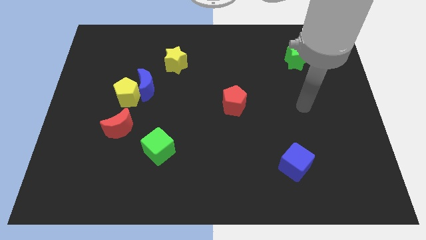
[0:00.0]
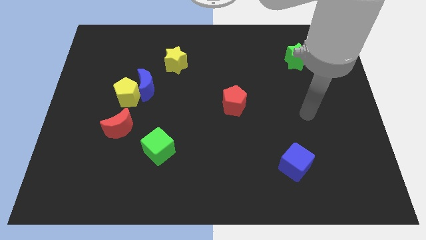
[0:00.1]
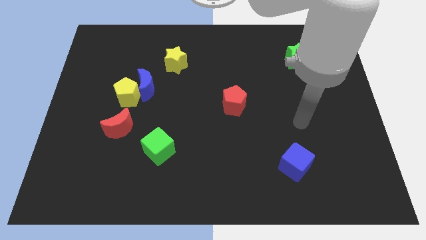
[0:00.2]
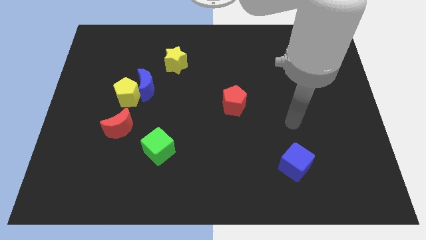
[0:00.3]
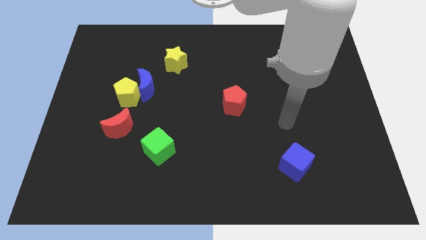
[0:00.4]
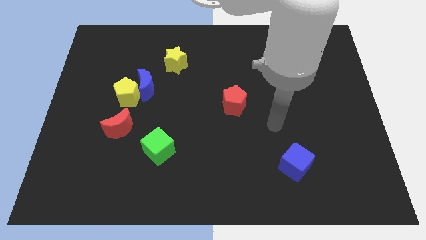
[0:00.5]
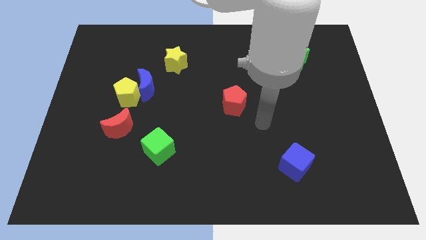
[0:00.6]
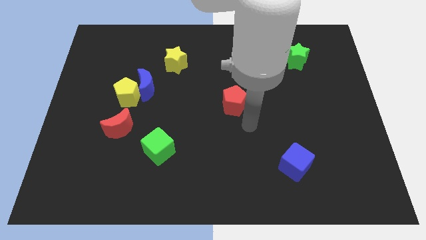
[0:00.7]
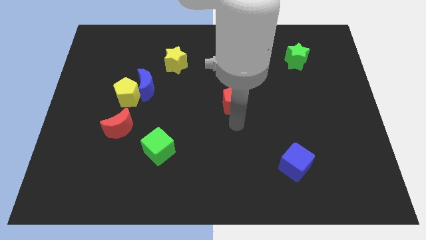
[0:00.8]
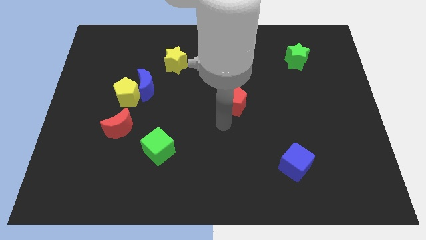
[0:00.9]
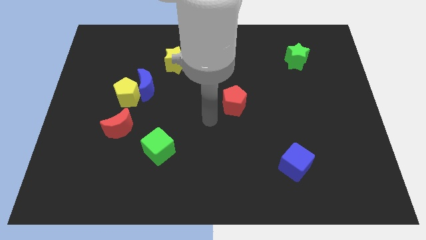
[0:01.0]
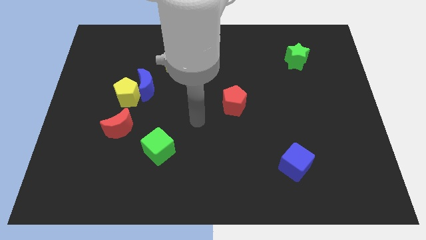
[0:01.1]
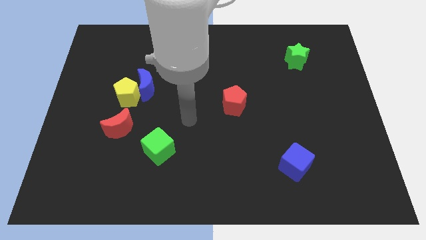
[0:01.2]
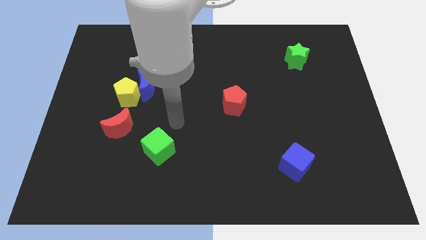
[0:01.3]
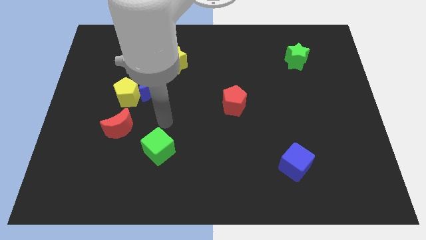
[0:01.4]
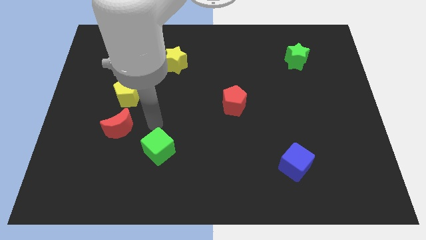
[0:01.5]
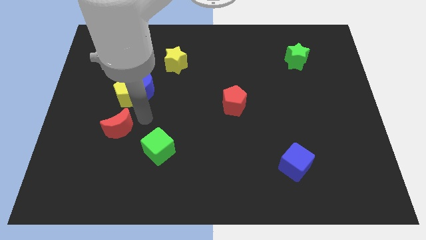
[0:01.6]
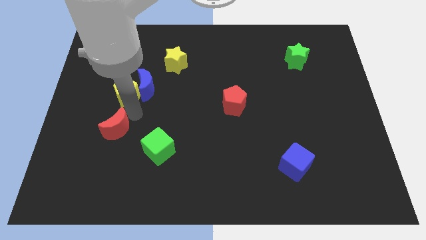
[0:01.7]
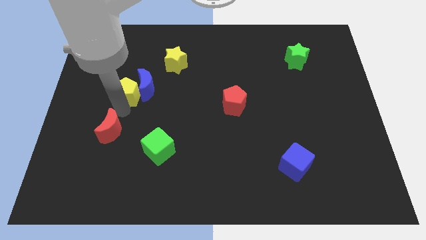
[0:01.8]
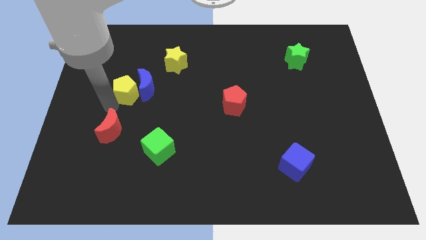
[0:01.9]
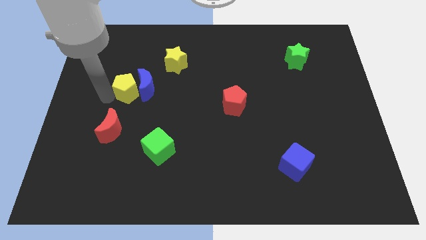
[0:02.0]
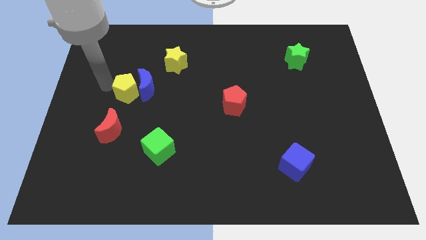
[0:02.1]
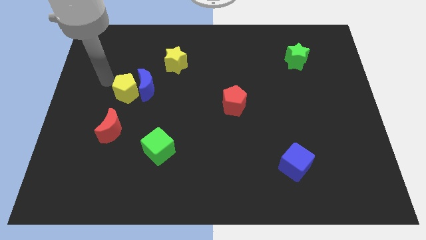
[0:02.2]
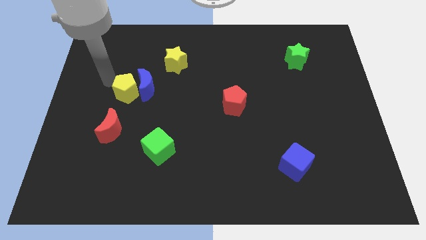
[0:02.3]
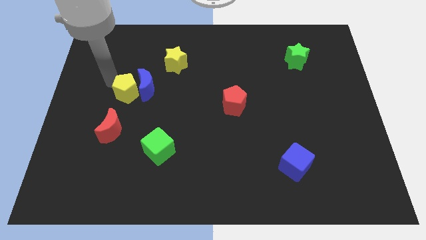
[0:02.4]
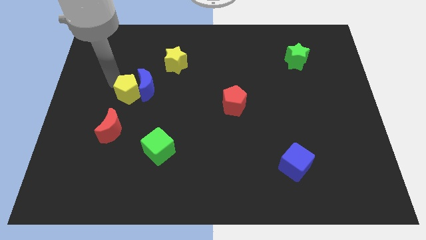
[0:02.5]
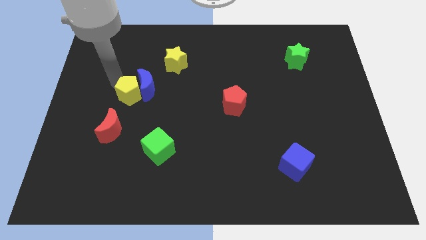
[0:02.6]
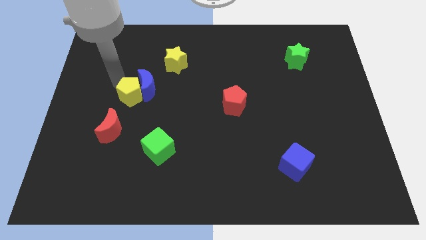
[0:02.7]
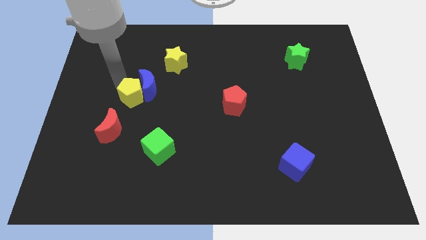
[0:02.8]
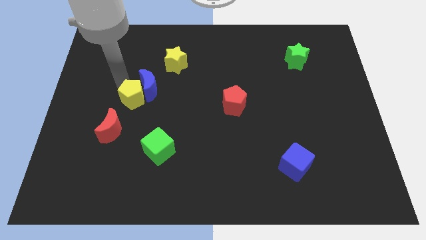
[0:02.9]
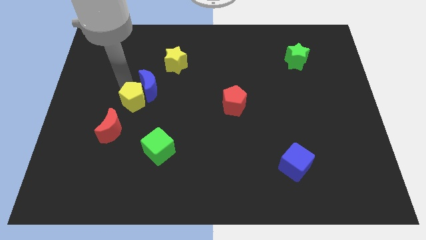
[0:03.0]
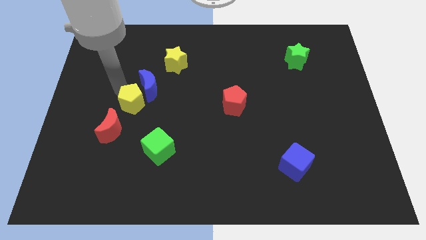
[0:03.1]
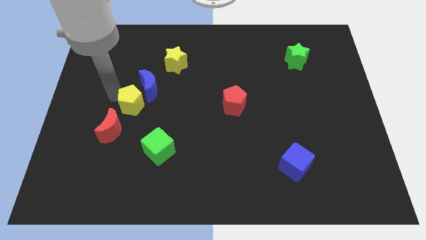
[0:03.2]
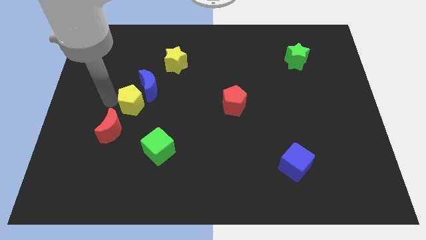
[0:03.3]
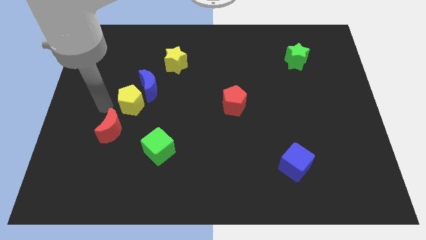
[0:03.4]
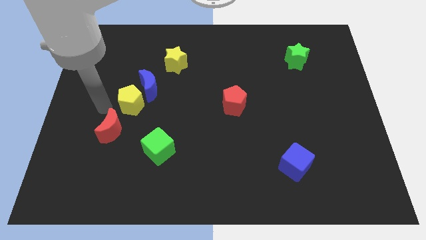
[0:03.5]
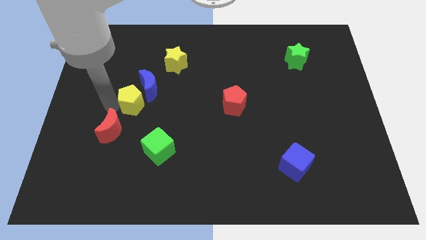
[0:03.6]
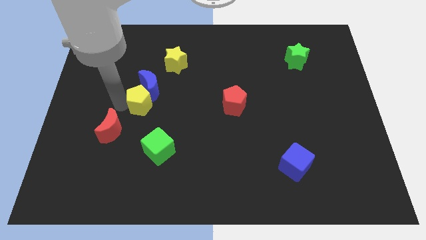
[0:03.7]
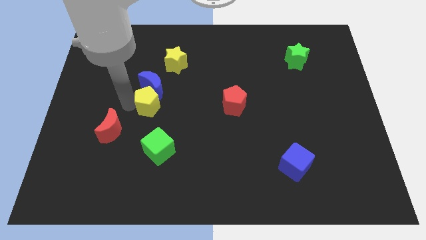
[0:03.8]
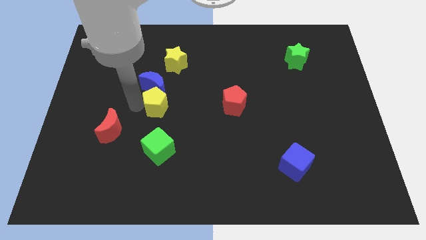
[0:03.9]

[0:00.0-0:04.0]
slide the yellow pentagon a little bit right

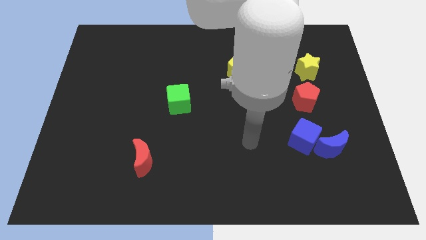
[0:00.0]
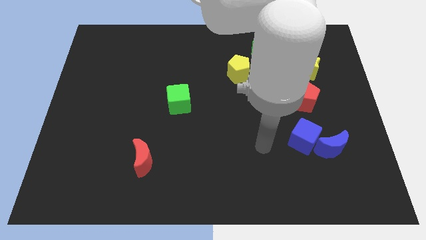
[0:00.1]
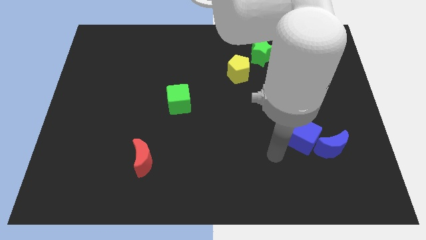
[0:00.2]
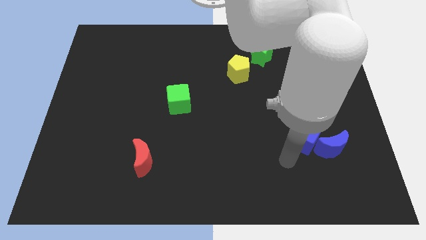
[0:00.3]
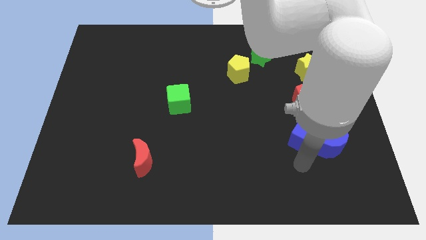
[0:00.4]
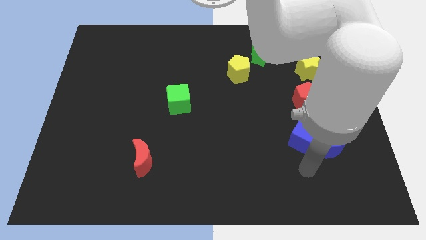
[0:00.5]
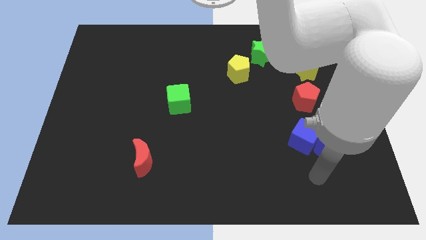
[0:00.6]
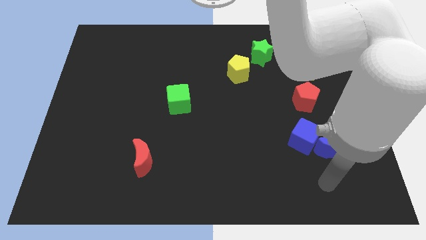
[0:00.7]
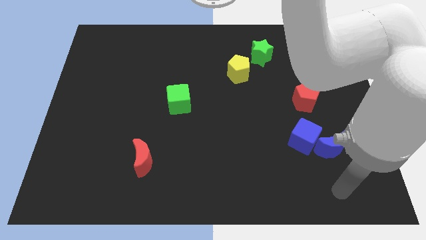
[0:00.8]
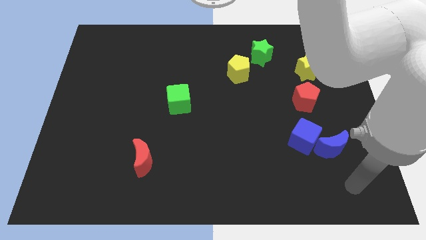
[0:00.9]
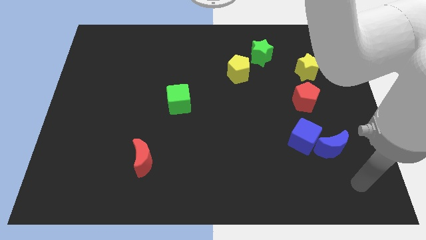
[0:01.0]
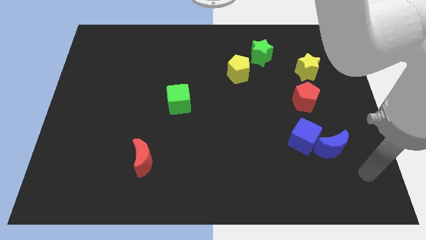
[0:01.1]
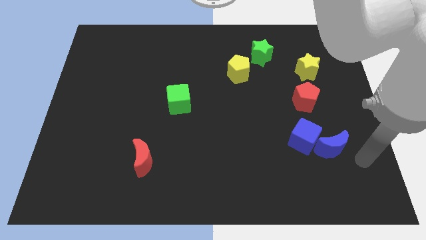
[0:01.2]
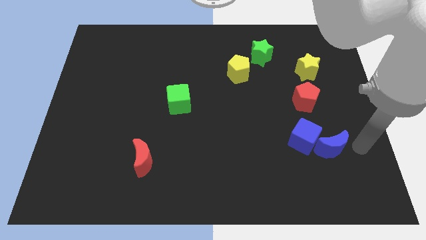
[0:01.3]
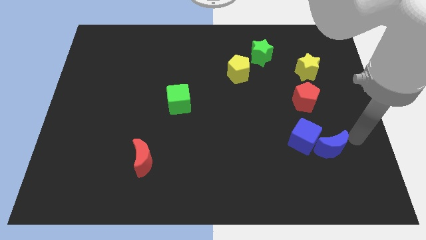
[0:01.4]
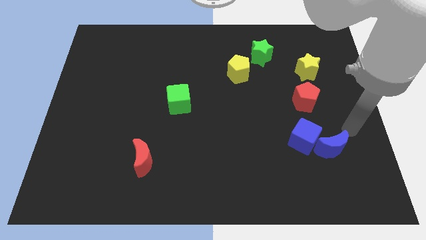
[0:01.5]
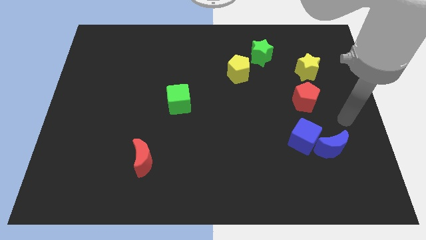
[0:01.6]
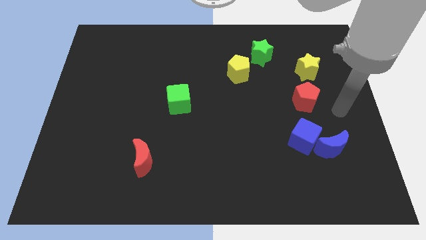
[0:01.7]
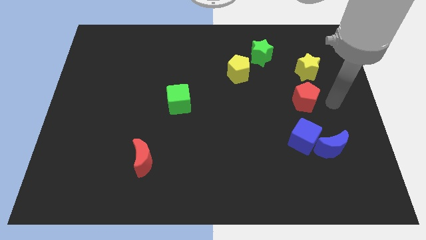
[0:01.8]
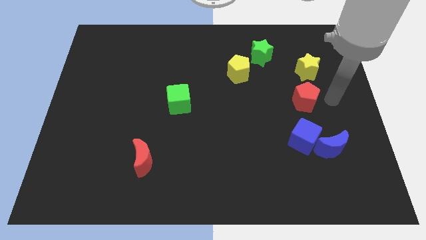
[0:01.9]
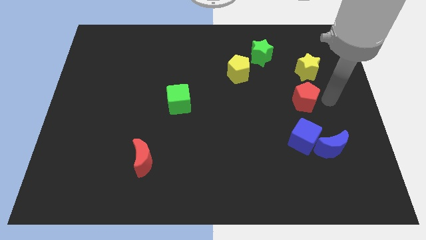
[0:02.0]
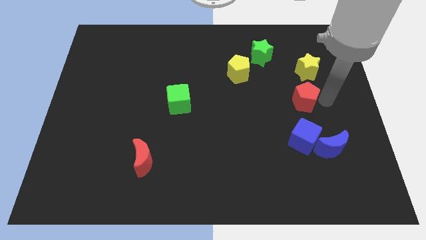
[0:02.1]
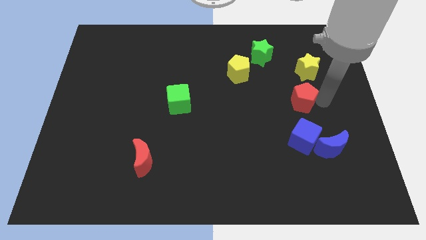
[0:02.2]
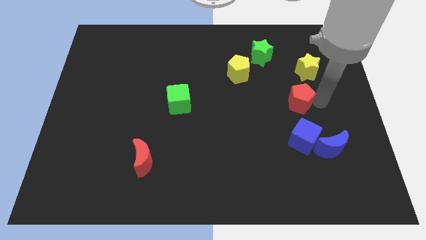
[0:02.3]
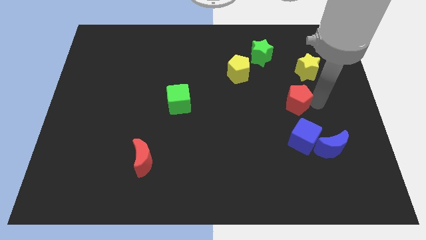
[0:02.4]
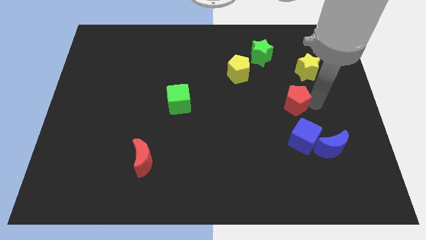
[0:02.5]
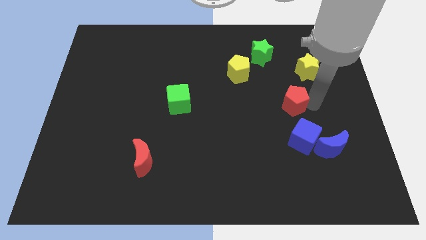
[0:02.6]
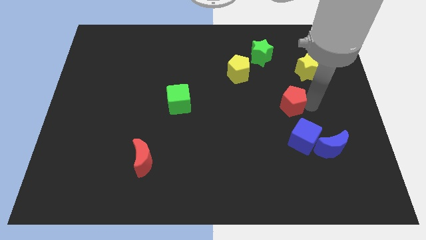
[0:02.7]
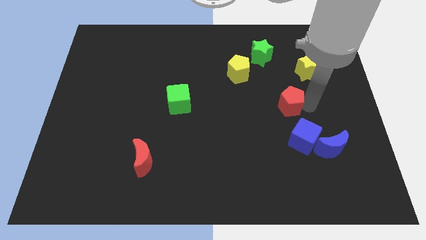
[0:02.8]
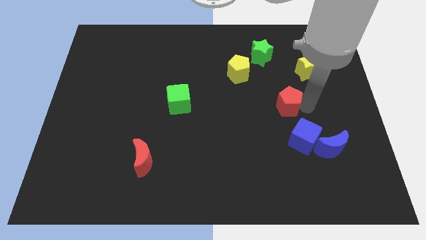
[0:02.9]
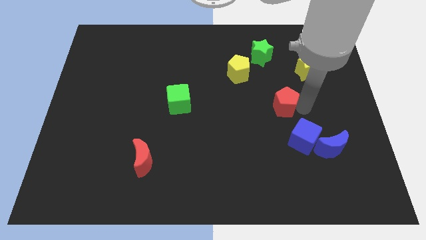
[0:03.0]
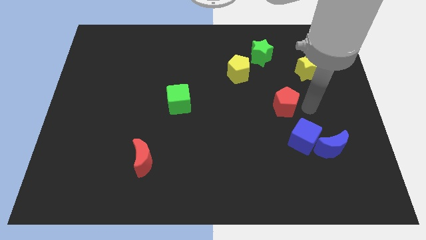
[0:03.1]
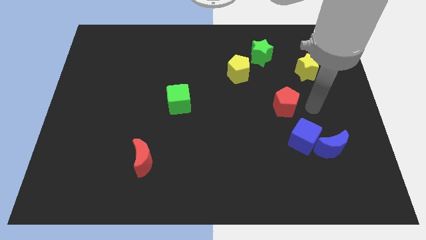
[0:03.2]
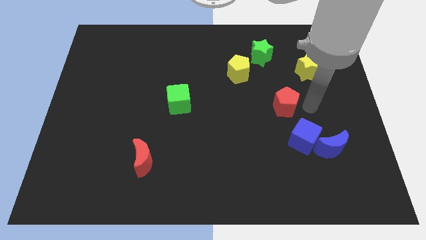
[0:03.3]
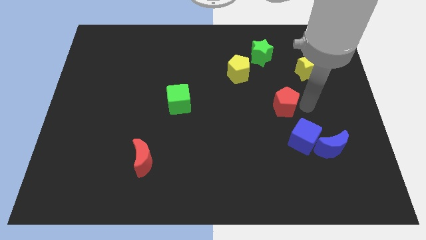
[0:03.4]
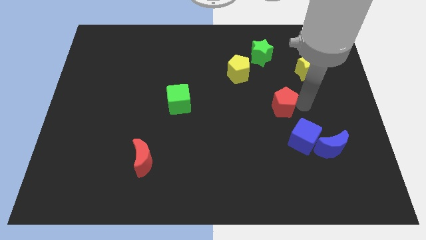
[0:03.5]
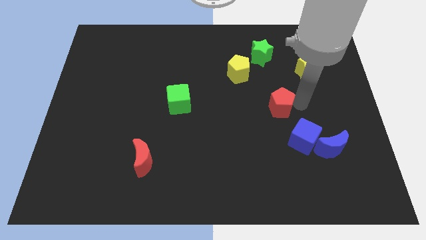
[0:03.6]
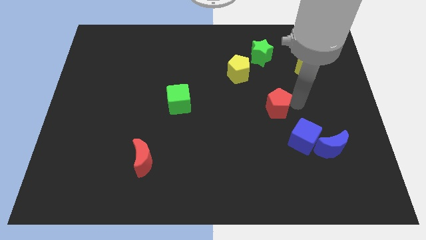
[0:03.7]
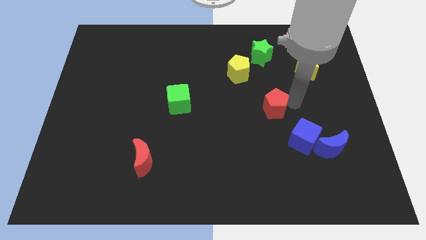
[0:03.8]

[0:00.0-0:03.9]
slightly move the red pentagon left
